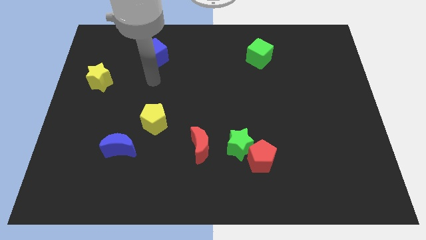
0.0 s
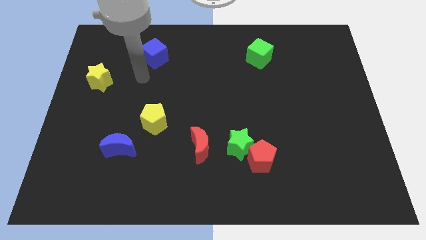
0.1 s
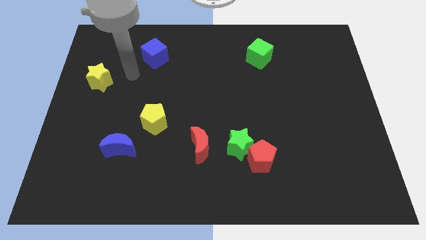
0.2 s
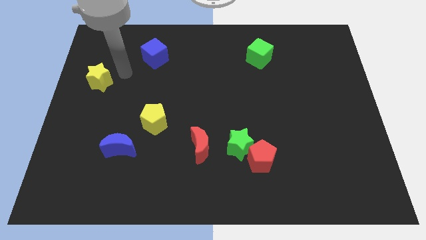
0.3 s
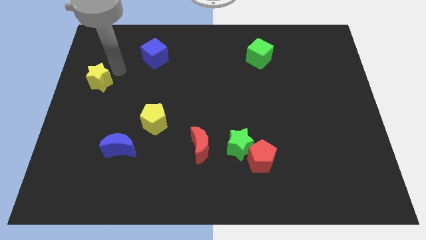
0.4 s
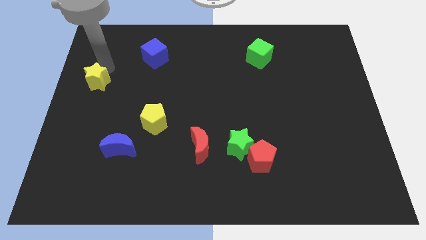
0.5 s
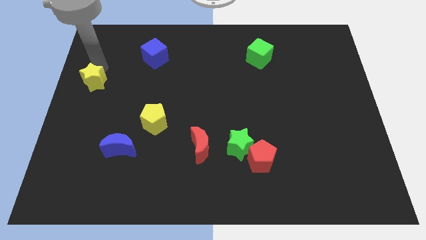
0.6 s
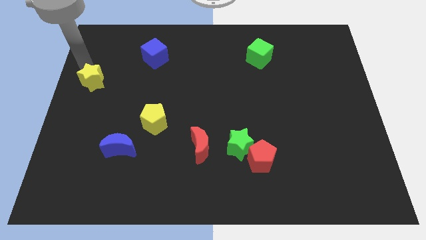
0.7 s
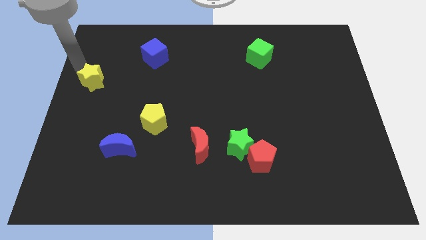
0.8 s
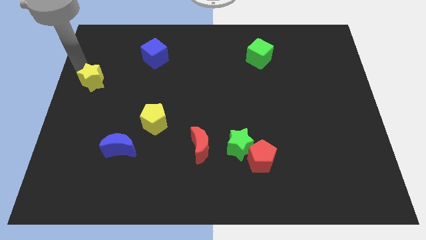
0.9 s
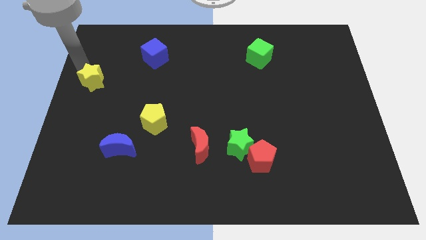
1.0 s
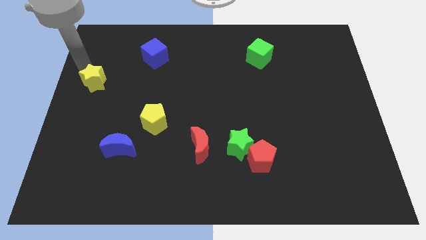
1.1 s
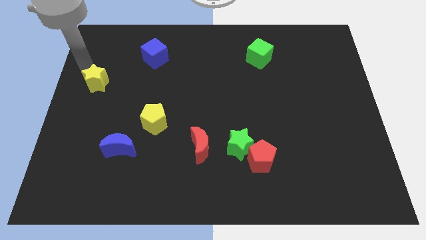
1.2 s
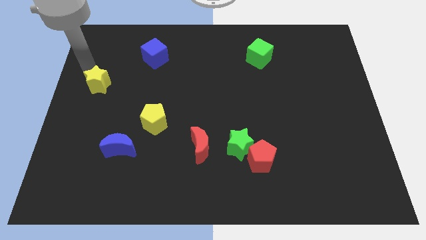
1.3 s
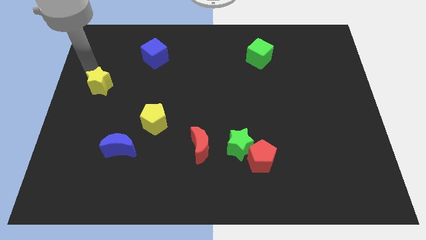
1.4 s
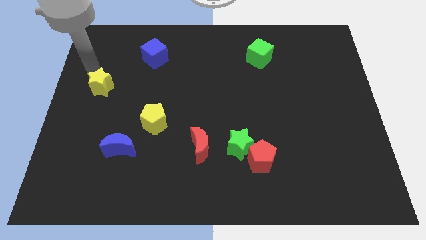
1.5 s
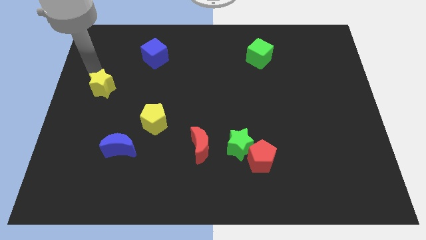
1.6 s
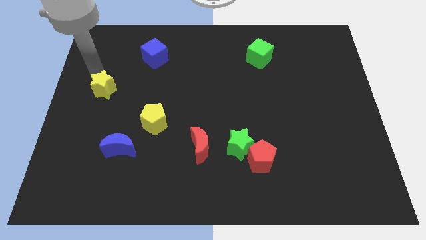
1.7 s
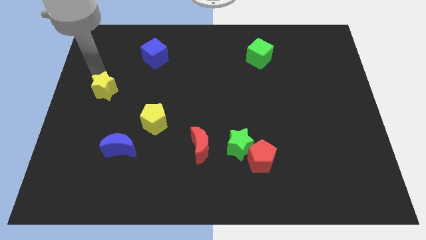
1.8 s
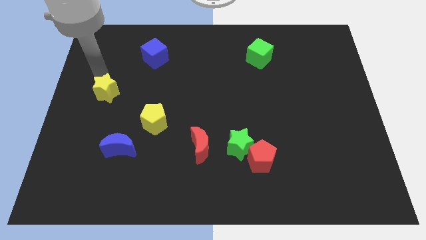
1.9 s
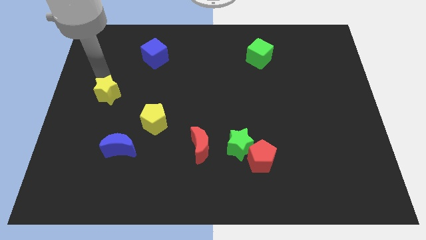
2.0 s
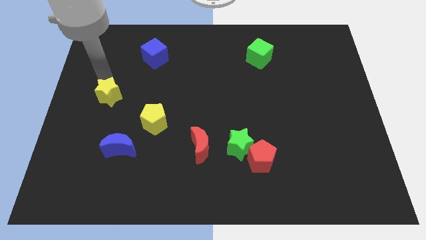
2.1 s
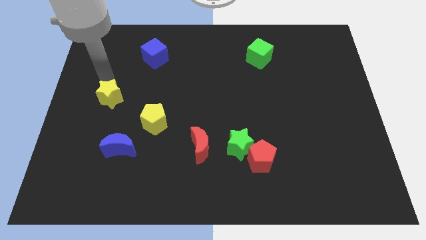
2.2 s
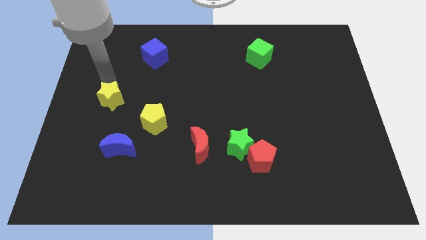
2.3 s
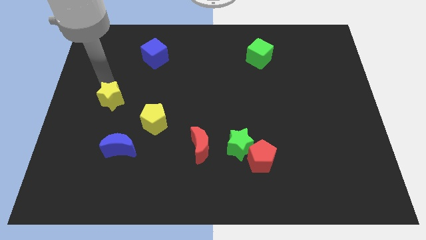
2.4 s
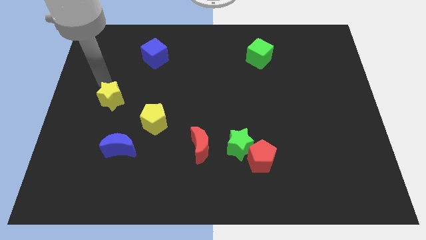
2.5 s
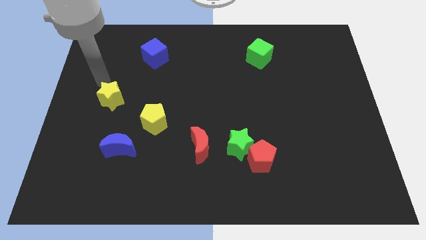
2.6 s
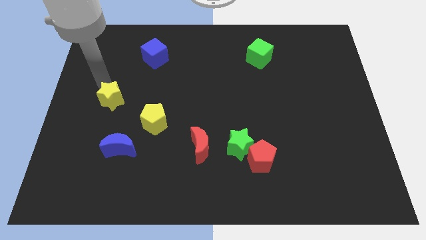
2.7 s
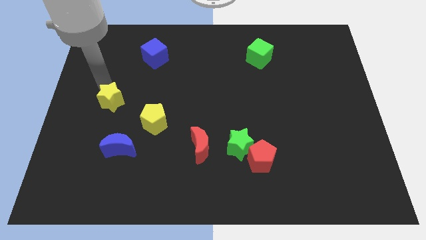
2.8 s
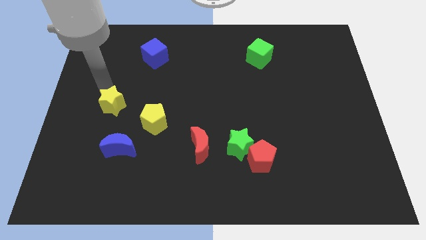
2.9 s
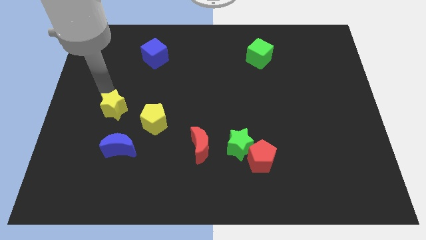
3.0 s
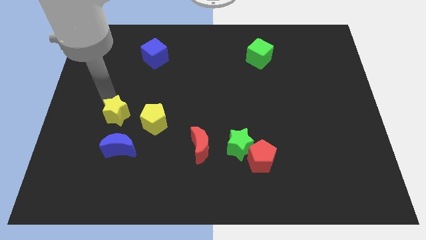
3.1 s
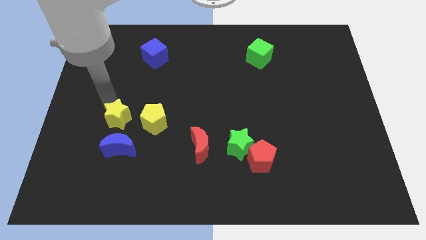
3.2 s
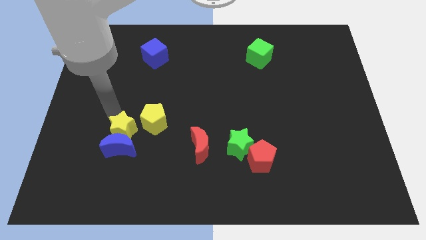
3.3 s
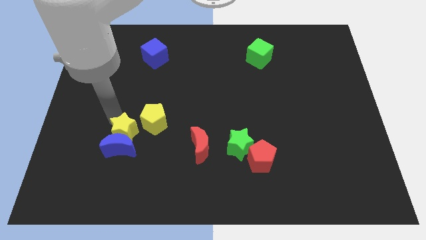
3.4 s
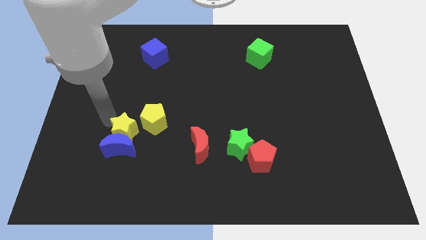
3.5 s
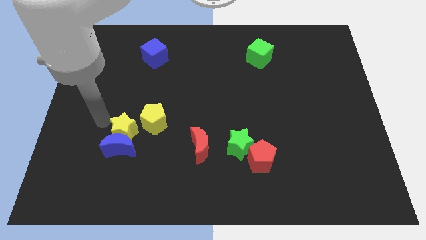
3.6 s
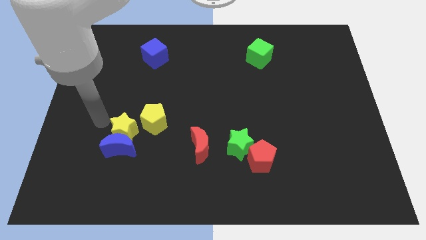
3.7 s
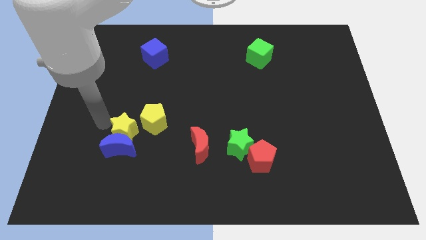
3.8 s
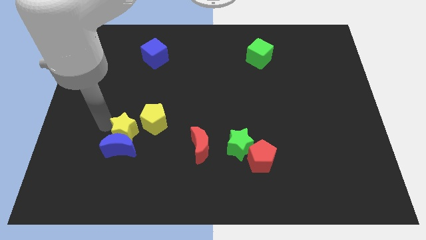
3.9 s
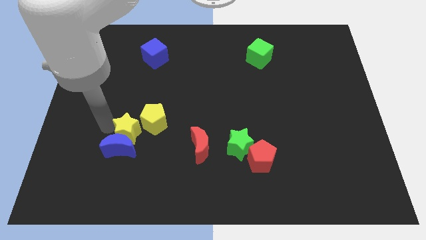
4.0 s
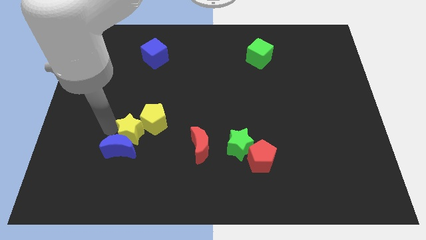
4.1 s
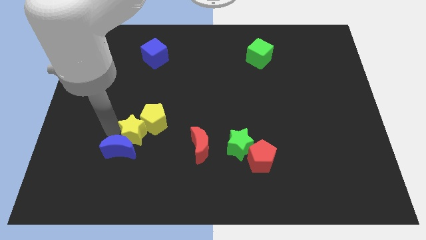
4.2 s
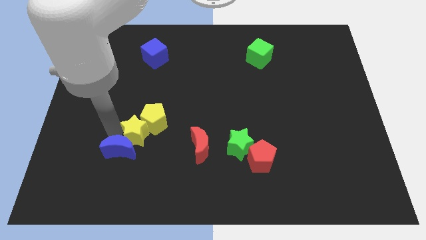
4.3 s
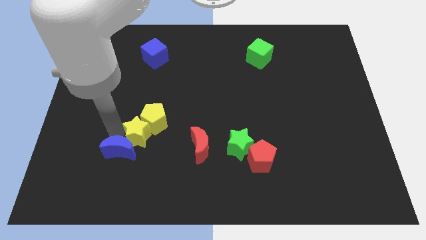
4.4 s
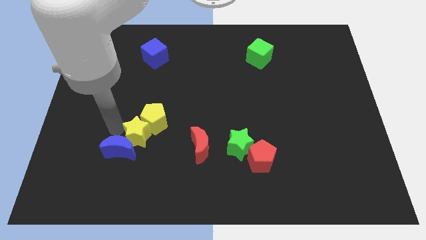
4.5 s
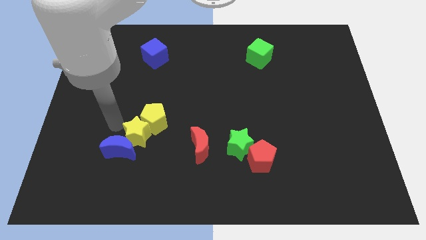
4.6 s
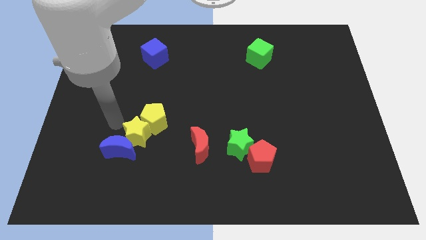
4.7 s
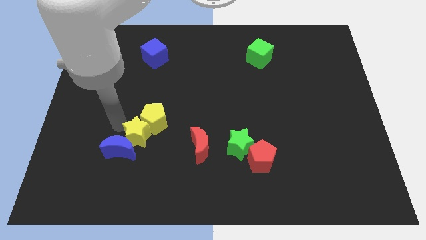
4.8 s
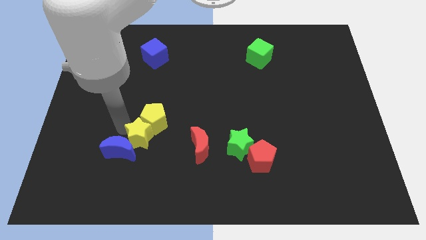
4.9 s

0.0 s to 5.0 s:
slide the yellow star downwards and then to the right

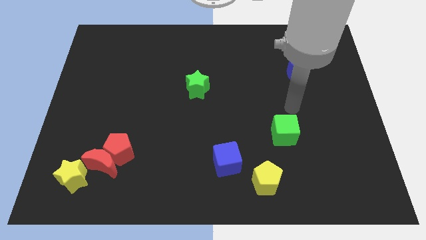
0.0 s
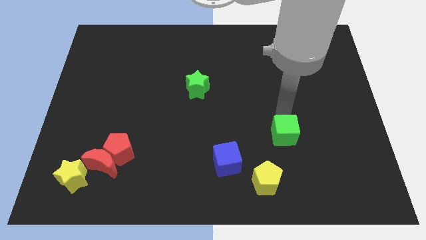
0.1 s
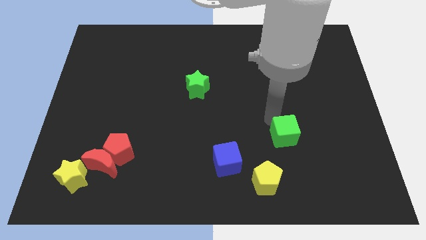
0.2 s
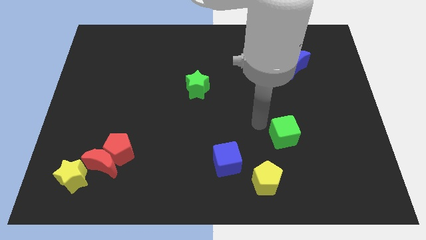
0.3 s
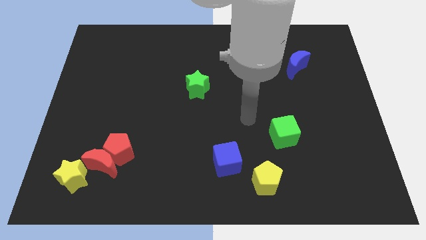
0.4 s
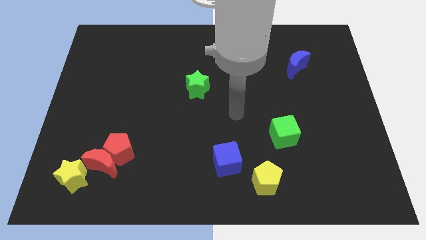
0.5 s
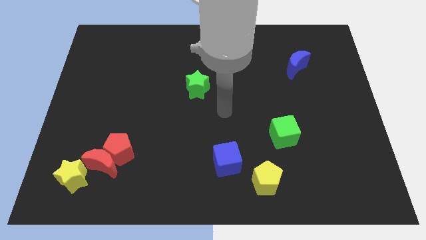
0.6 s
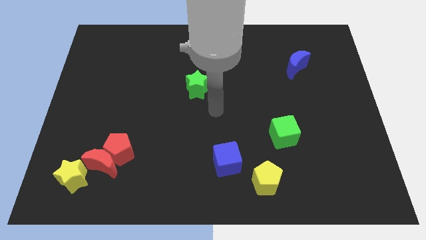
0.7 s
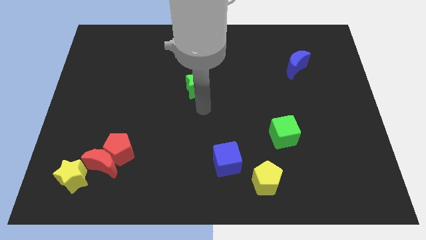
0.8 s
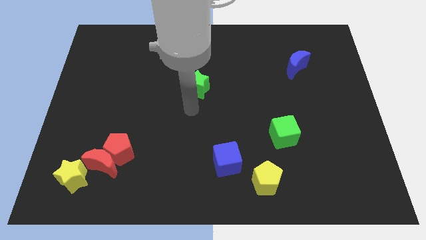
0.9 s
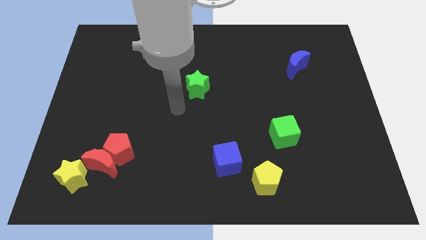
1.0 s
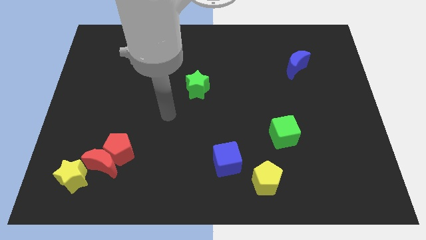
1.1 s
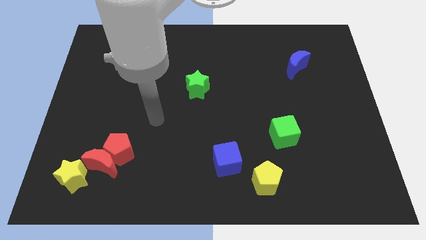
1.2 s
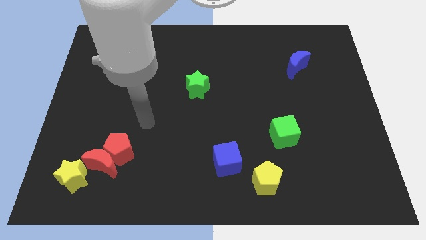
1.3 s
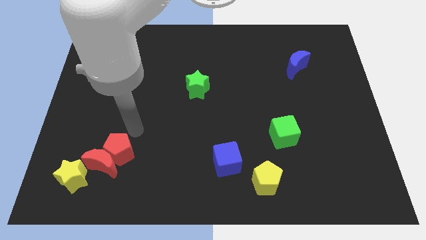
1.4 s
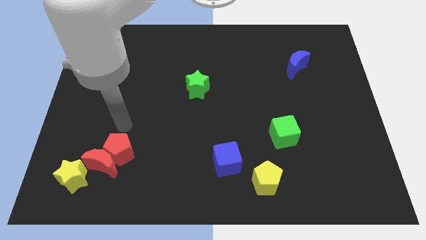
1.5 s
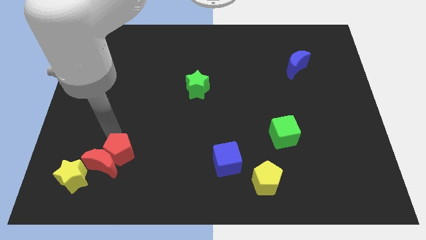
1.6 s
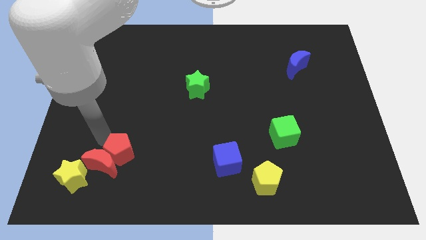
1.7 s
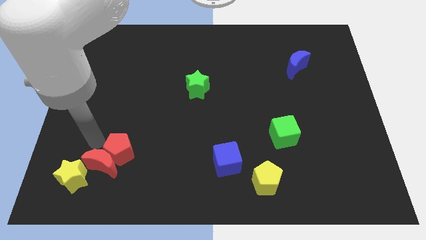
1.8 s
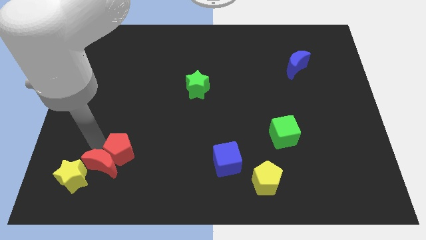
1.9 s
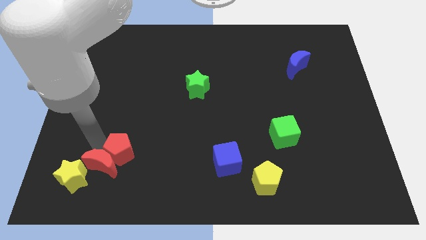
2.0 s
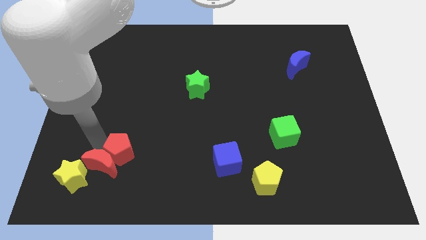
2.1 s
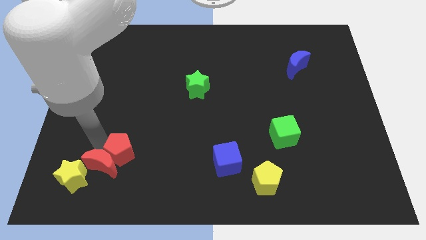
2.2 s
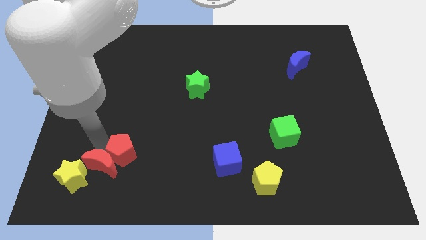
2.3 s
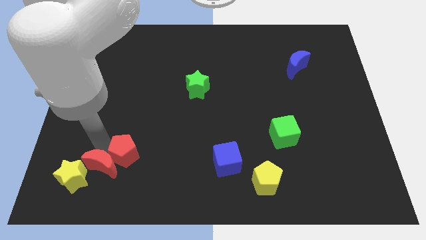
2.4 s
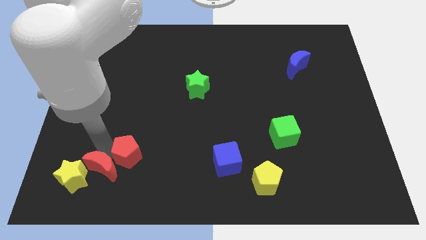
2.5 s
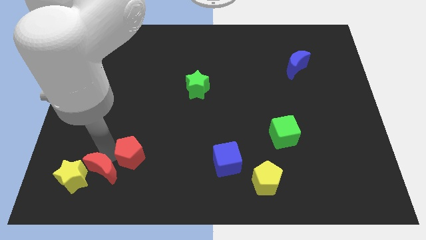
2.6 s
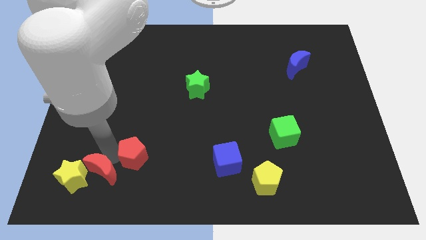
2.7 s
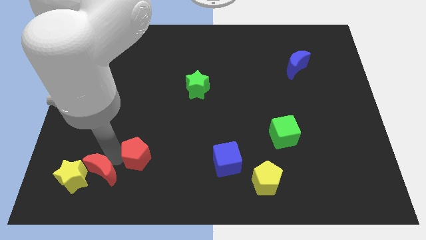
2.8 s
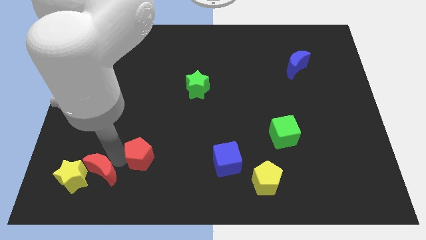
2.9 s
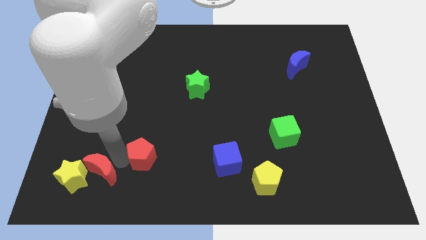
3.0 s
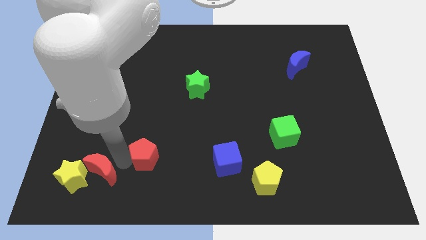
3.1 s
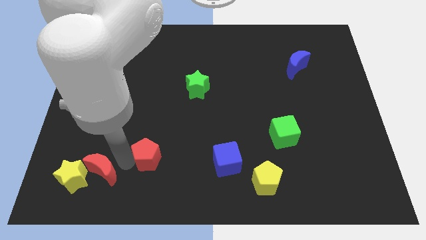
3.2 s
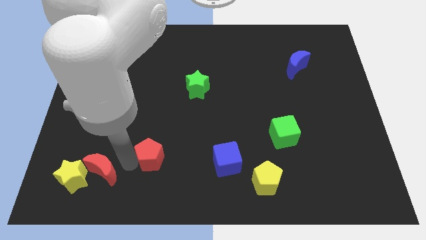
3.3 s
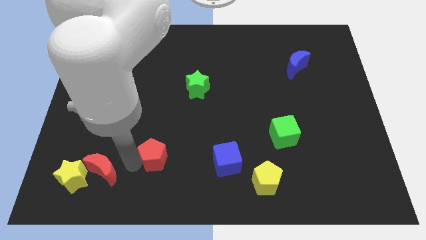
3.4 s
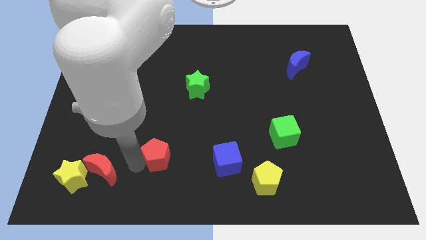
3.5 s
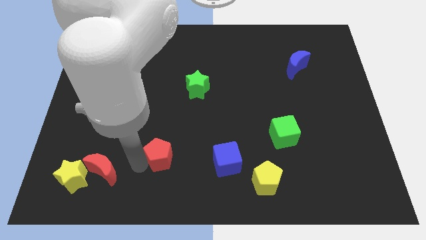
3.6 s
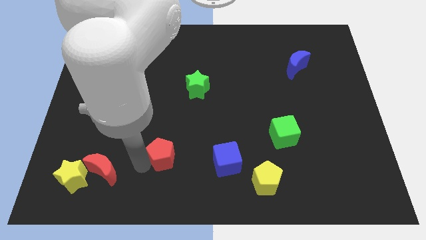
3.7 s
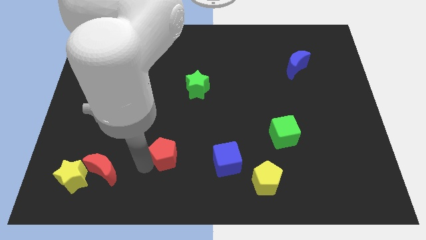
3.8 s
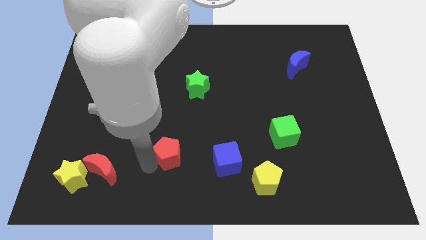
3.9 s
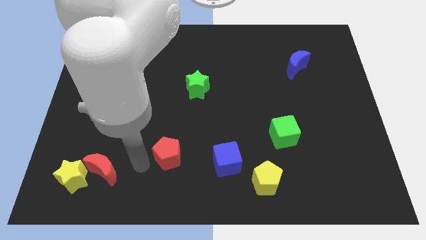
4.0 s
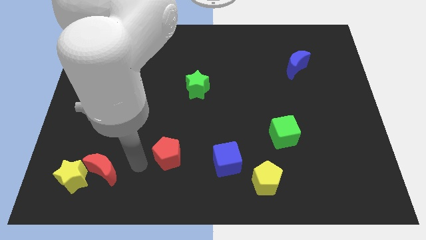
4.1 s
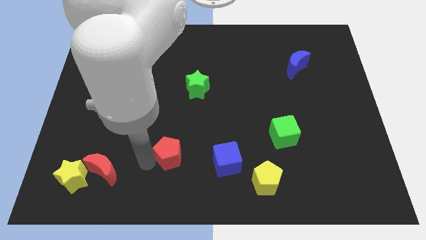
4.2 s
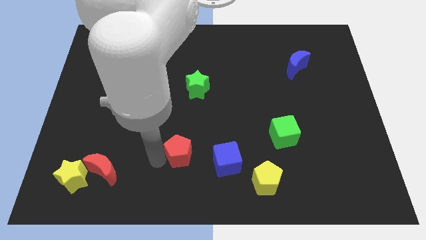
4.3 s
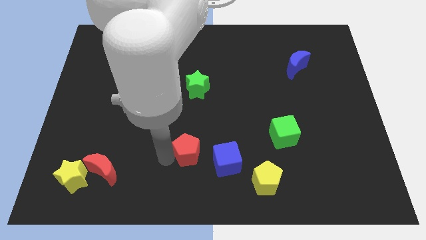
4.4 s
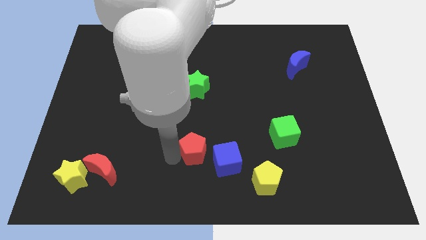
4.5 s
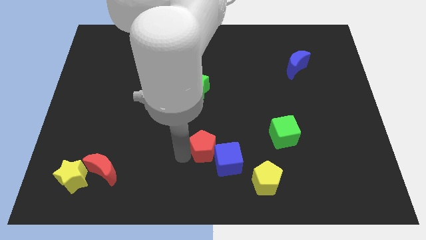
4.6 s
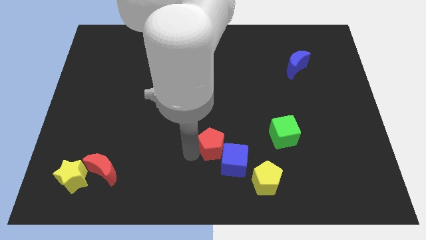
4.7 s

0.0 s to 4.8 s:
slide the red pentagon to the right
